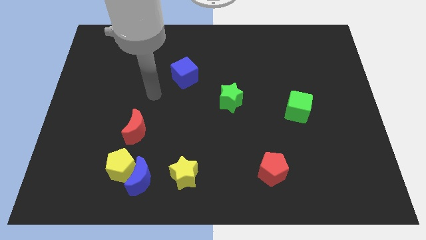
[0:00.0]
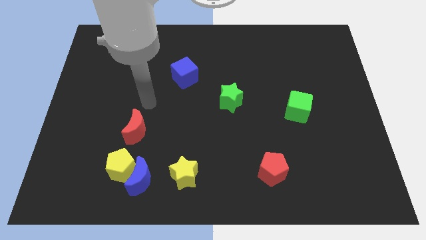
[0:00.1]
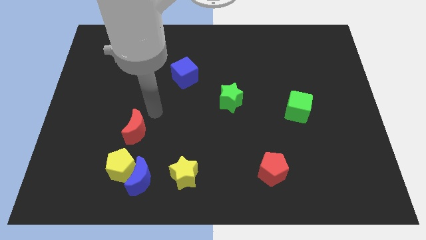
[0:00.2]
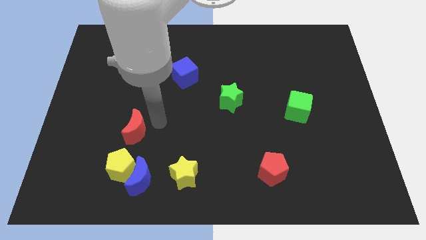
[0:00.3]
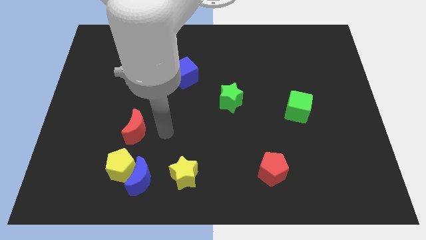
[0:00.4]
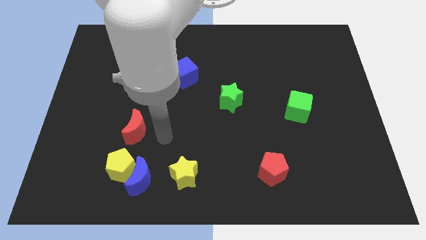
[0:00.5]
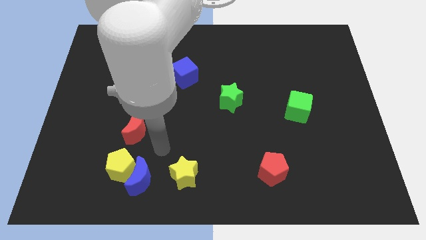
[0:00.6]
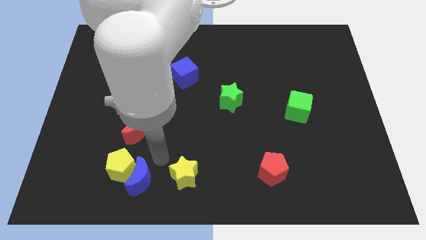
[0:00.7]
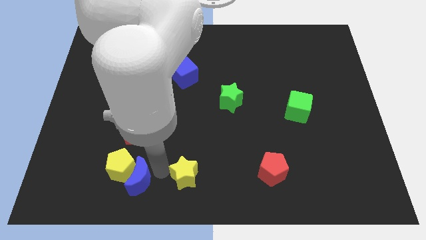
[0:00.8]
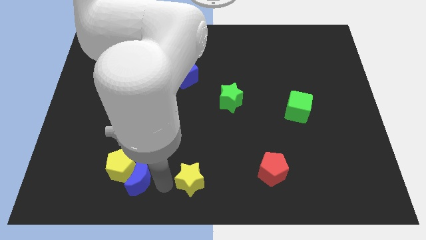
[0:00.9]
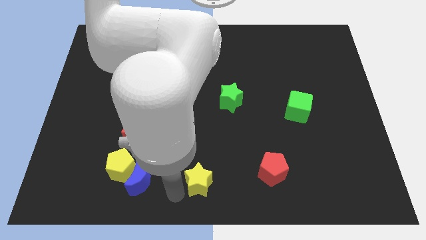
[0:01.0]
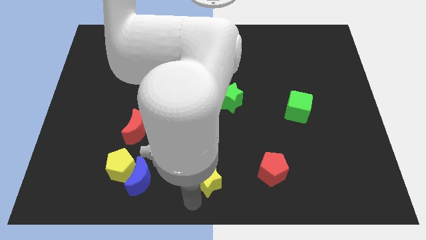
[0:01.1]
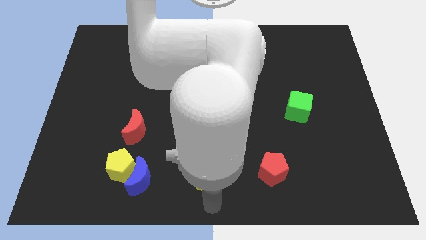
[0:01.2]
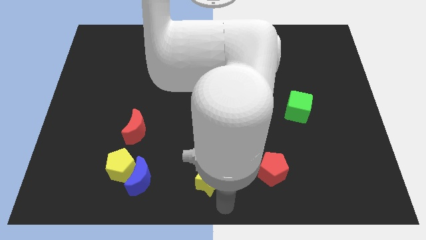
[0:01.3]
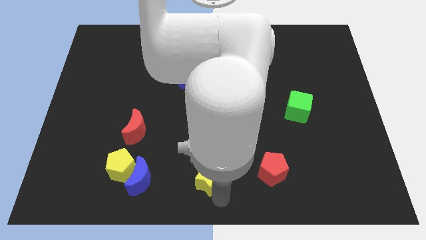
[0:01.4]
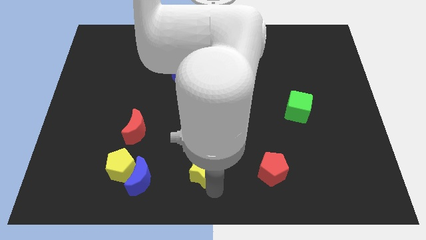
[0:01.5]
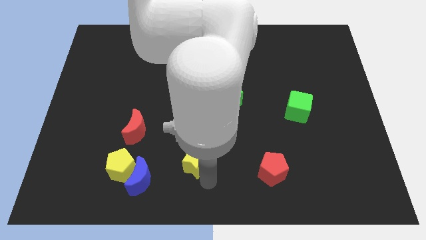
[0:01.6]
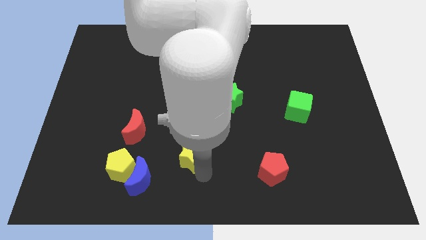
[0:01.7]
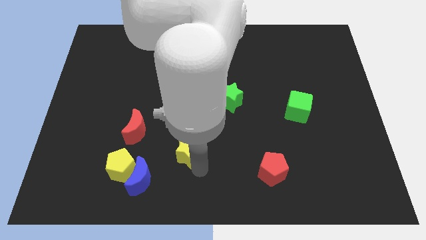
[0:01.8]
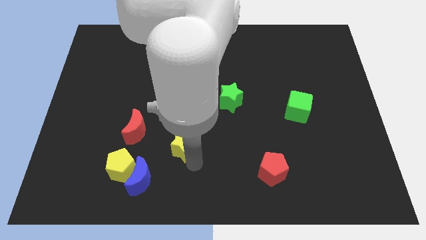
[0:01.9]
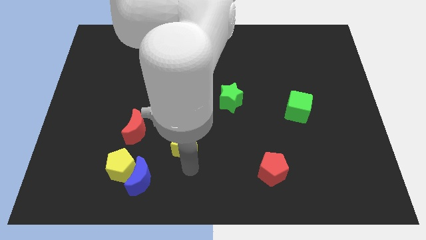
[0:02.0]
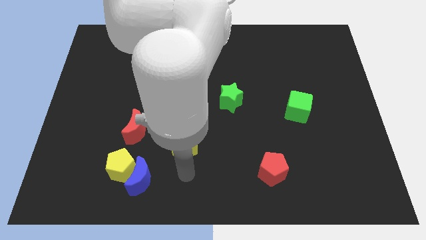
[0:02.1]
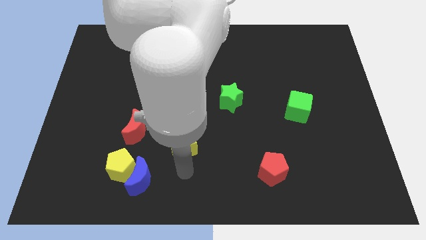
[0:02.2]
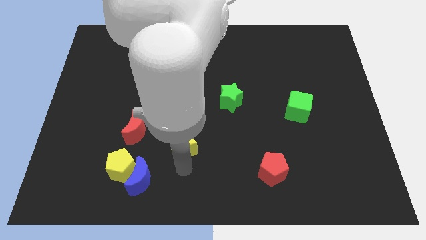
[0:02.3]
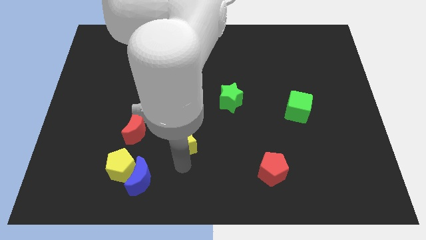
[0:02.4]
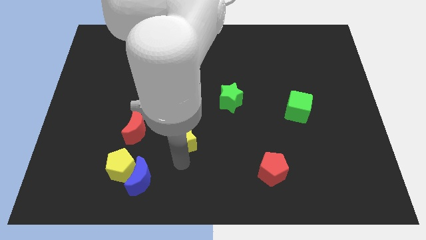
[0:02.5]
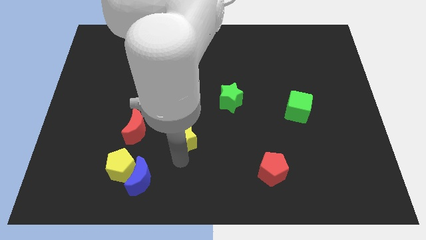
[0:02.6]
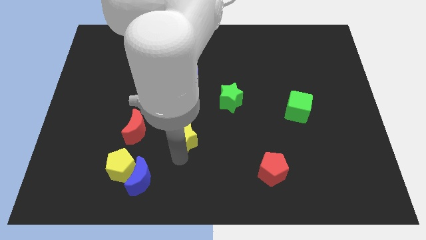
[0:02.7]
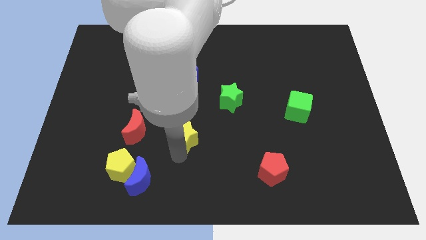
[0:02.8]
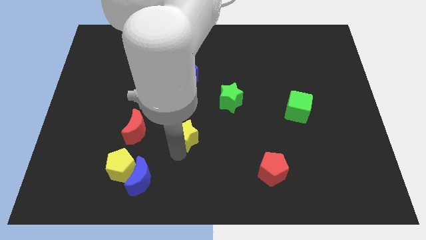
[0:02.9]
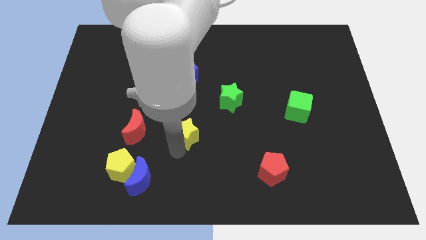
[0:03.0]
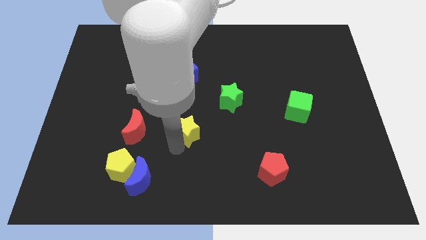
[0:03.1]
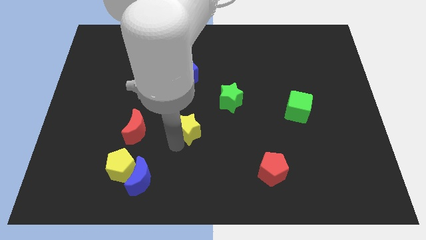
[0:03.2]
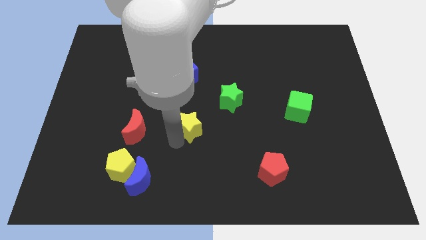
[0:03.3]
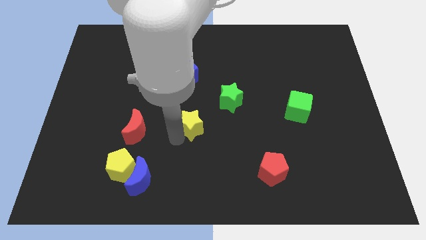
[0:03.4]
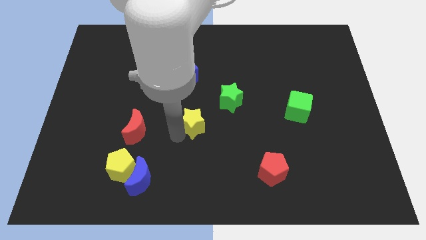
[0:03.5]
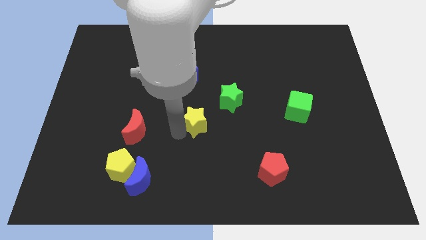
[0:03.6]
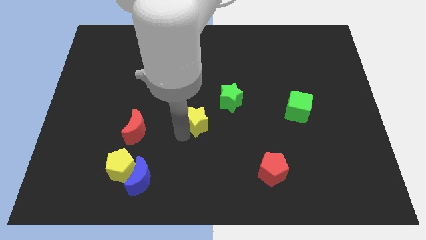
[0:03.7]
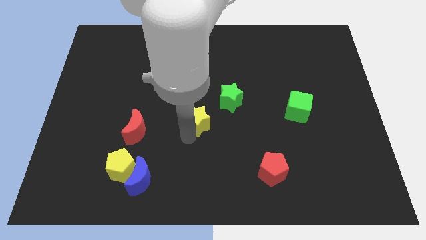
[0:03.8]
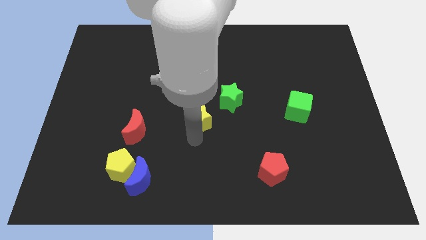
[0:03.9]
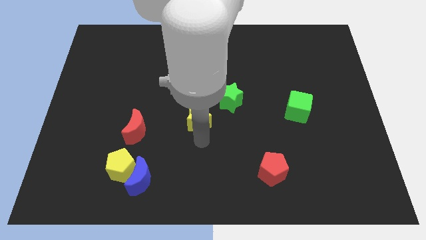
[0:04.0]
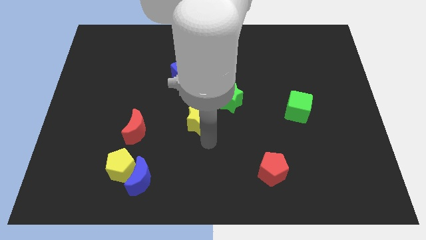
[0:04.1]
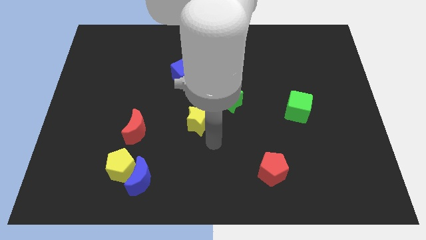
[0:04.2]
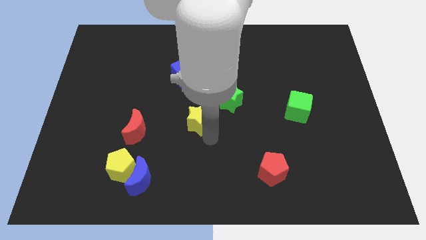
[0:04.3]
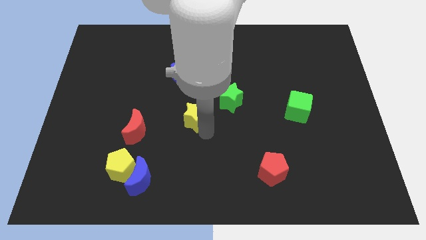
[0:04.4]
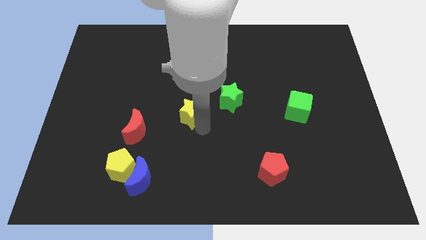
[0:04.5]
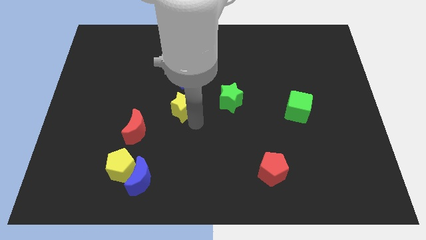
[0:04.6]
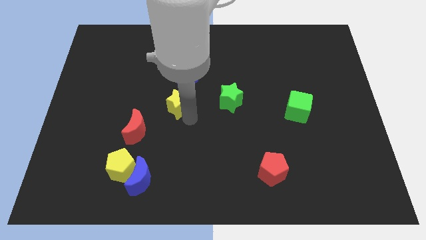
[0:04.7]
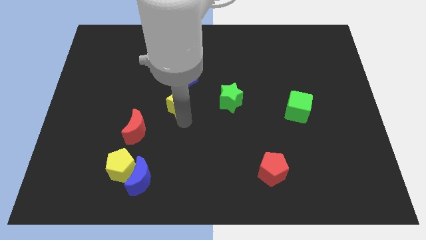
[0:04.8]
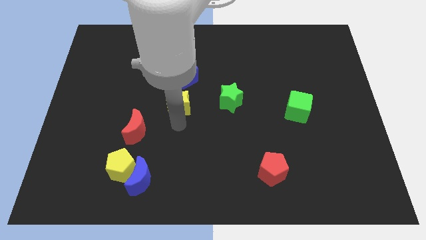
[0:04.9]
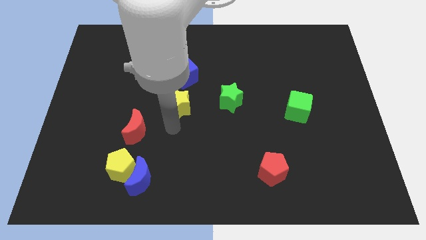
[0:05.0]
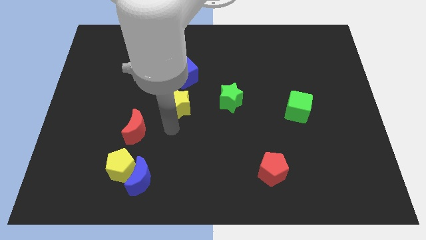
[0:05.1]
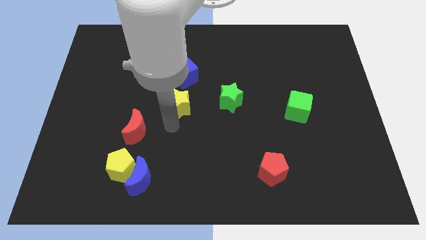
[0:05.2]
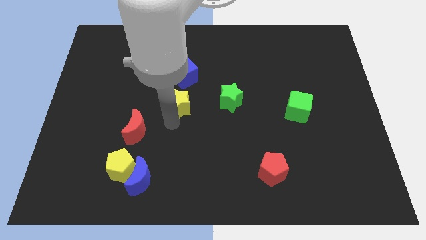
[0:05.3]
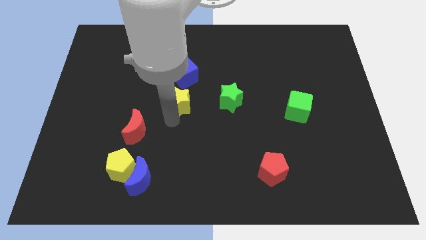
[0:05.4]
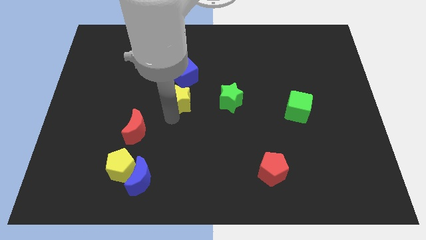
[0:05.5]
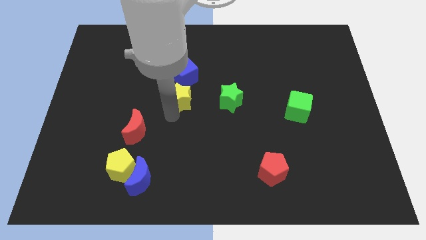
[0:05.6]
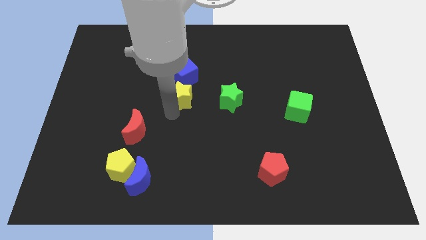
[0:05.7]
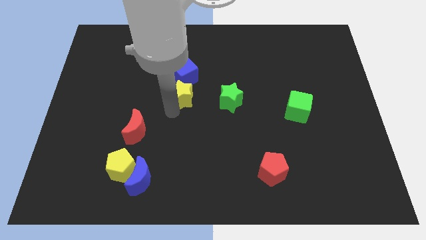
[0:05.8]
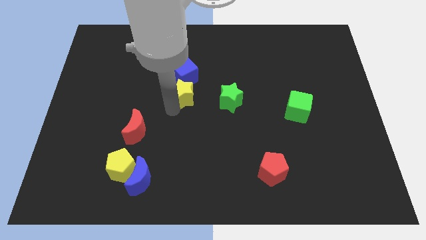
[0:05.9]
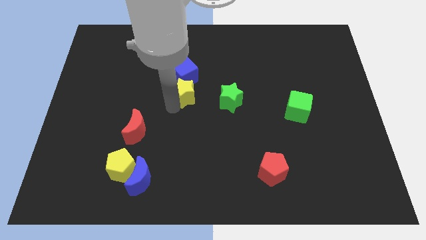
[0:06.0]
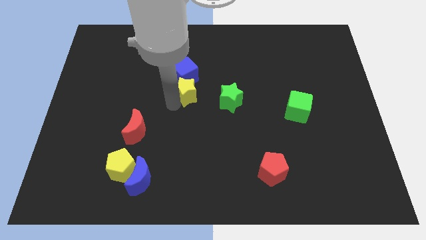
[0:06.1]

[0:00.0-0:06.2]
put the yellow star towards the blue cube

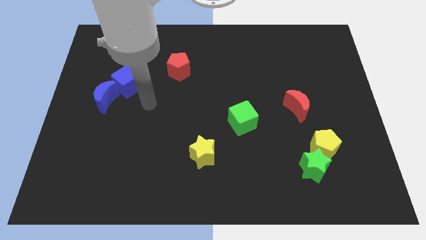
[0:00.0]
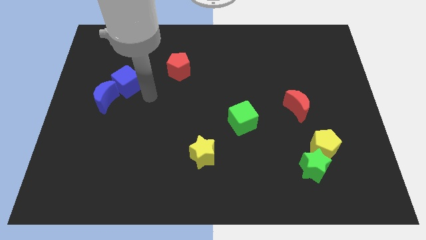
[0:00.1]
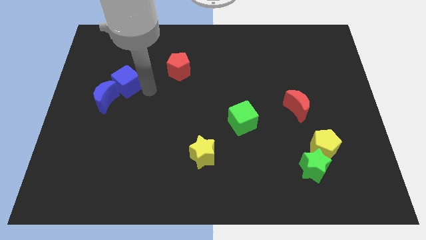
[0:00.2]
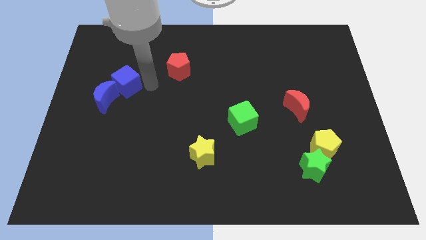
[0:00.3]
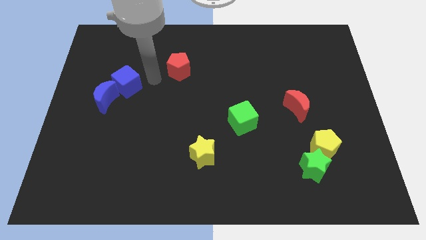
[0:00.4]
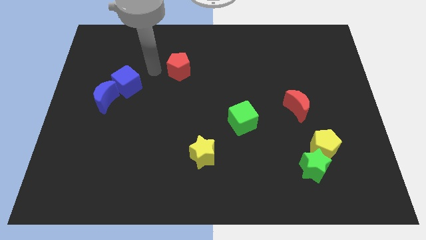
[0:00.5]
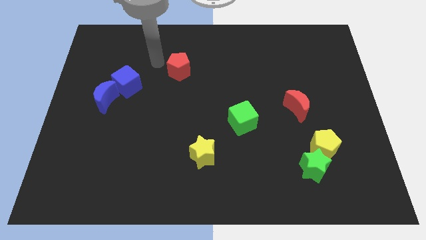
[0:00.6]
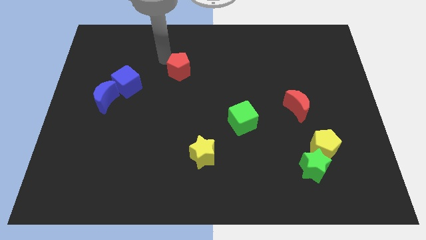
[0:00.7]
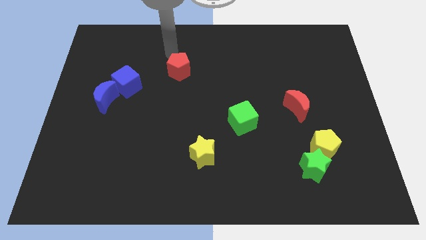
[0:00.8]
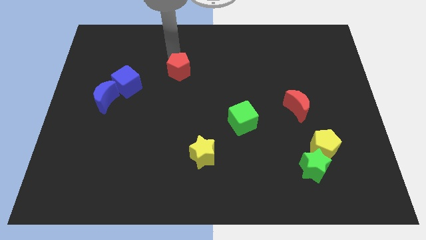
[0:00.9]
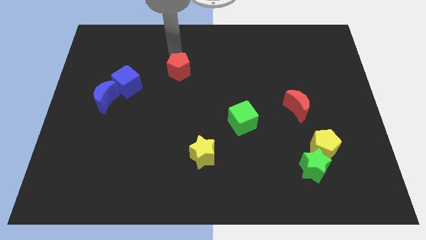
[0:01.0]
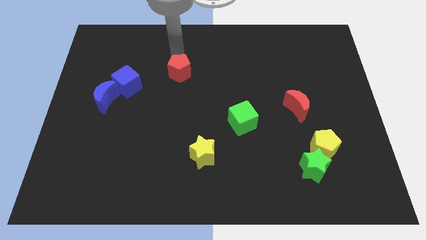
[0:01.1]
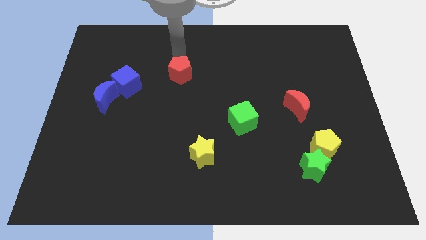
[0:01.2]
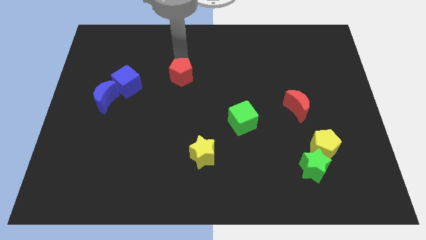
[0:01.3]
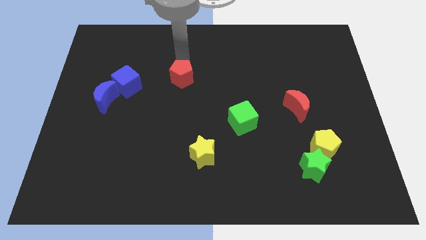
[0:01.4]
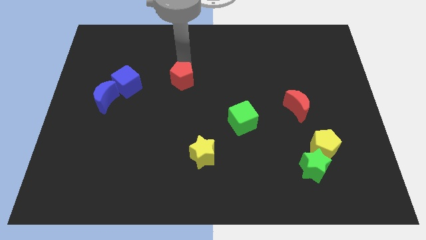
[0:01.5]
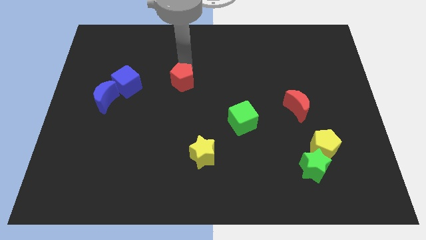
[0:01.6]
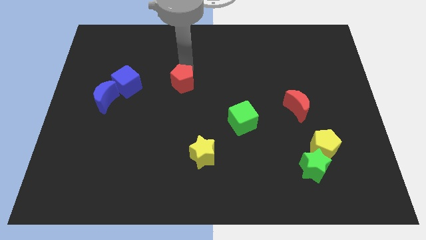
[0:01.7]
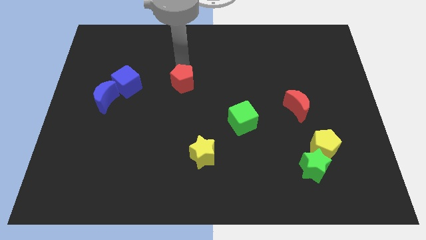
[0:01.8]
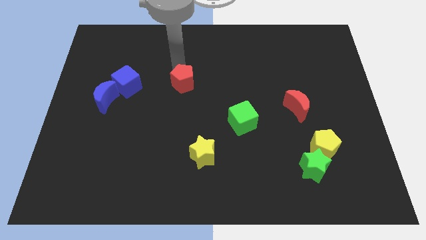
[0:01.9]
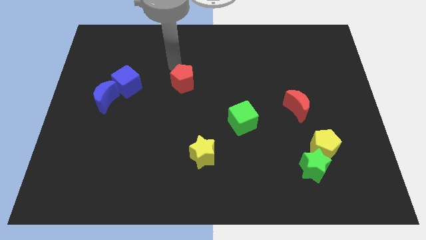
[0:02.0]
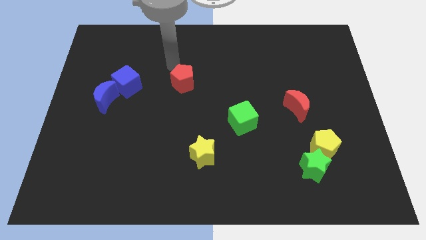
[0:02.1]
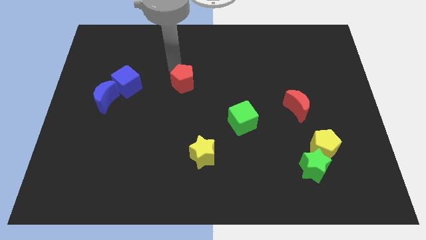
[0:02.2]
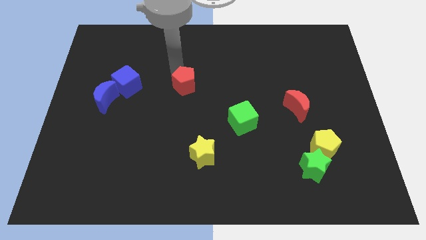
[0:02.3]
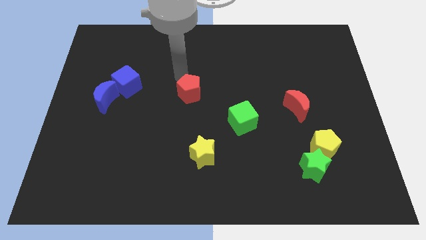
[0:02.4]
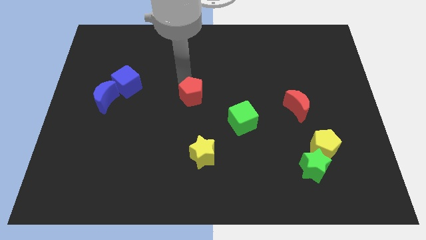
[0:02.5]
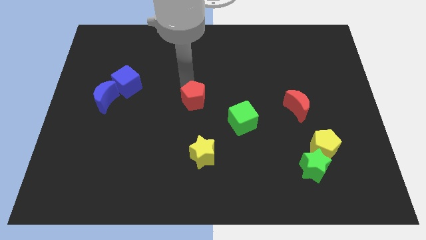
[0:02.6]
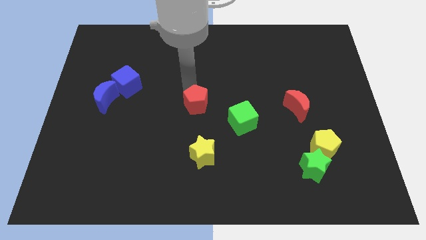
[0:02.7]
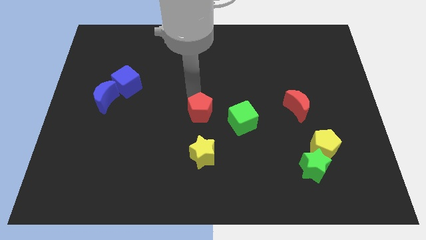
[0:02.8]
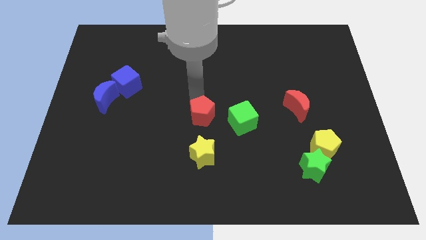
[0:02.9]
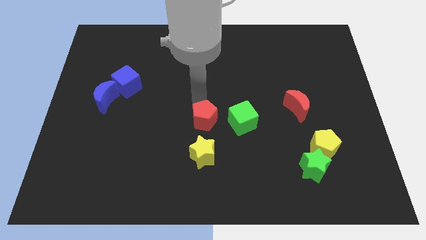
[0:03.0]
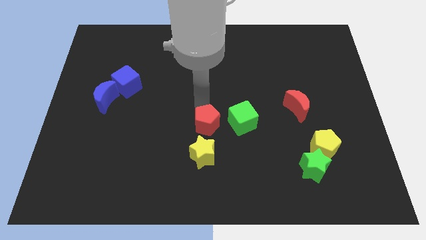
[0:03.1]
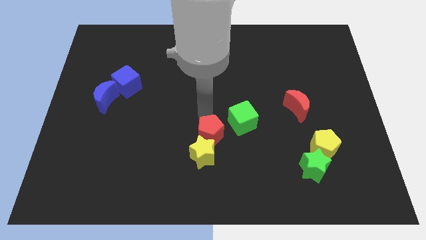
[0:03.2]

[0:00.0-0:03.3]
move the red pentagon close to the yellow star
